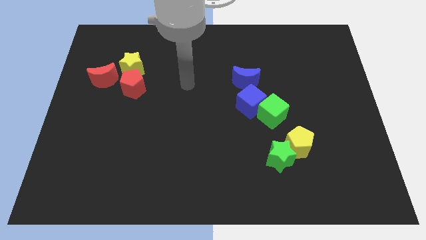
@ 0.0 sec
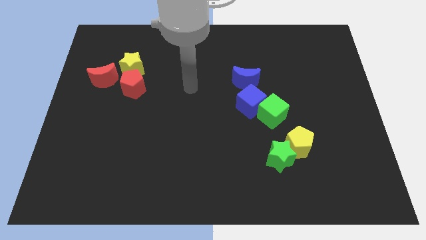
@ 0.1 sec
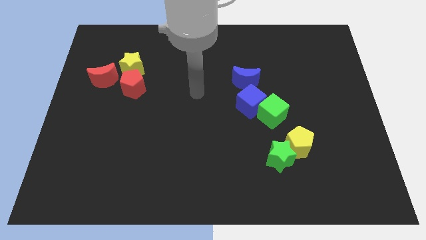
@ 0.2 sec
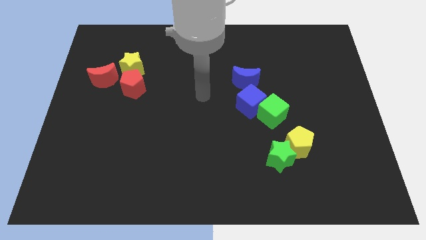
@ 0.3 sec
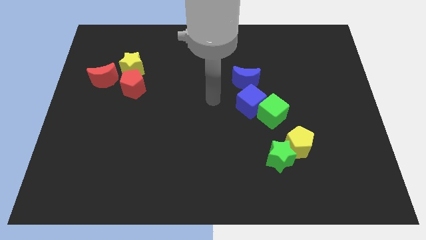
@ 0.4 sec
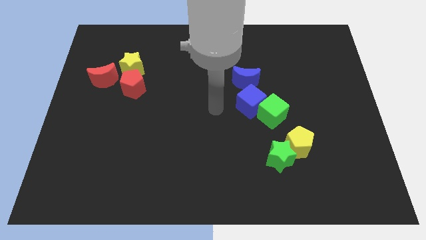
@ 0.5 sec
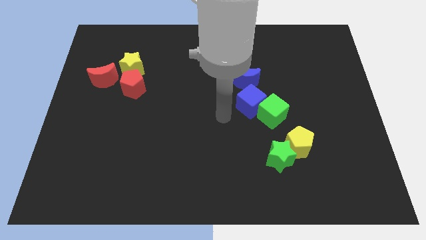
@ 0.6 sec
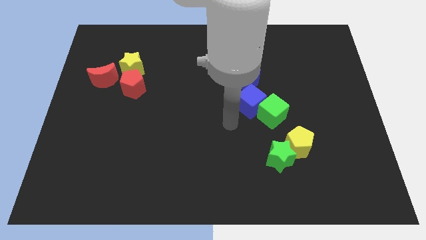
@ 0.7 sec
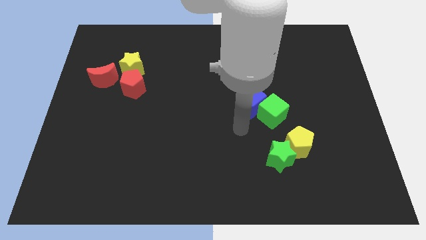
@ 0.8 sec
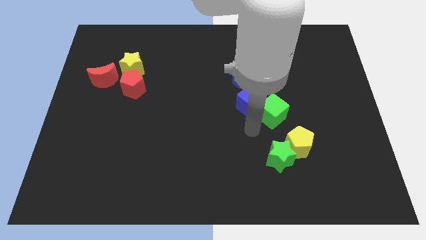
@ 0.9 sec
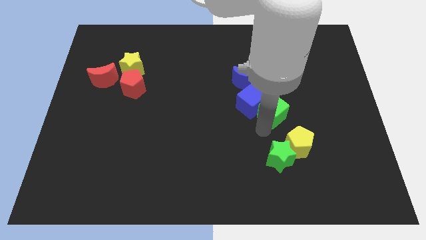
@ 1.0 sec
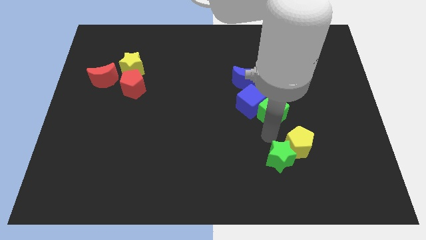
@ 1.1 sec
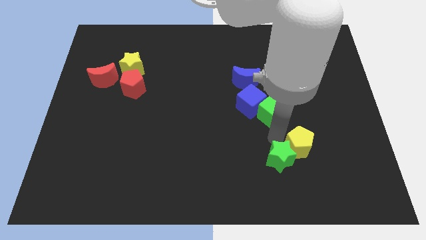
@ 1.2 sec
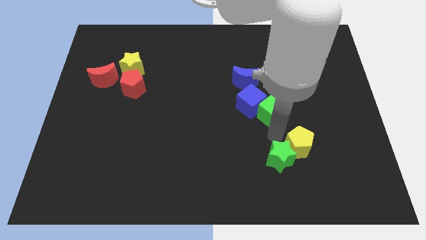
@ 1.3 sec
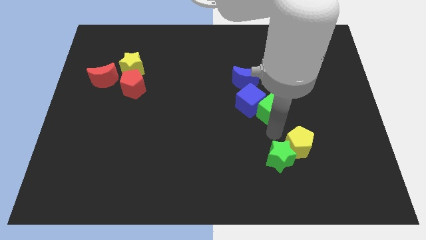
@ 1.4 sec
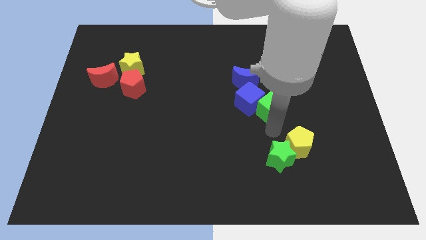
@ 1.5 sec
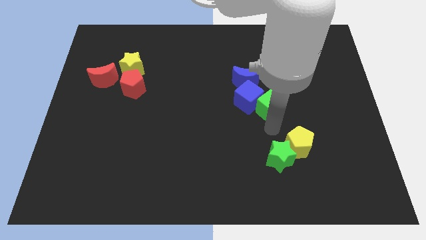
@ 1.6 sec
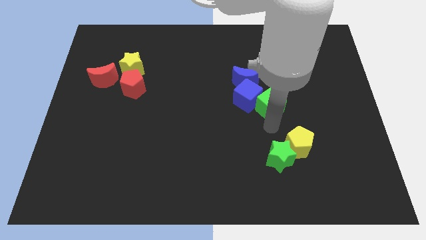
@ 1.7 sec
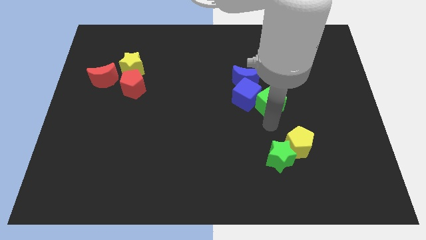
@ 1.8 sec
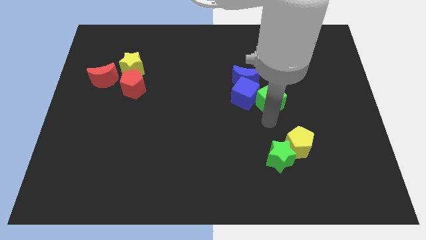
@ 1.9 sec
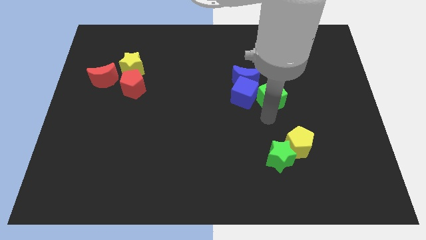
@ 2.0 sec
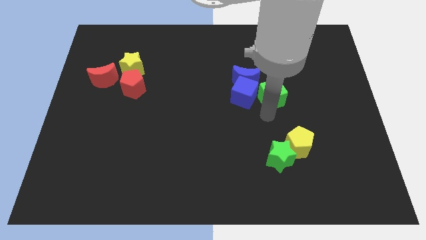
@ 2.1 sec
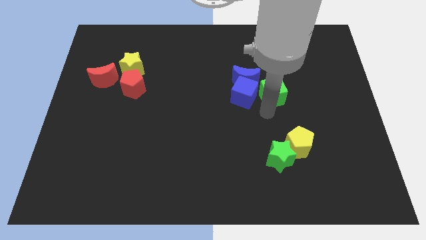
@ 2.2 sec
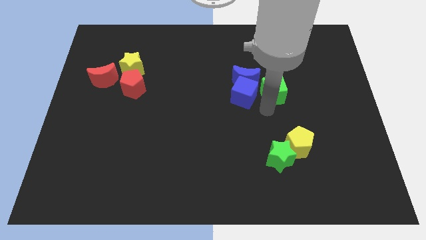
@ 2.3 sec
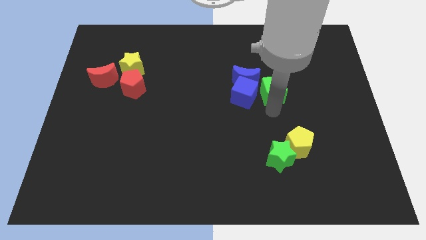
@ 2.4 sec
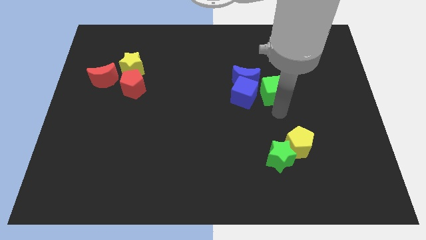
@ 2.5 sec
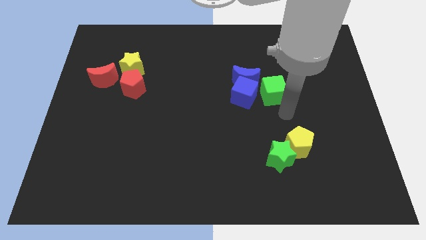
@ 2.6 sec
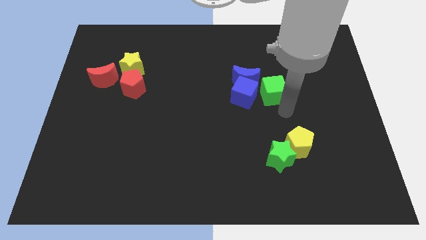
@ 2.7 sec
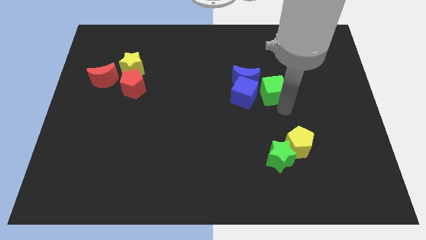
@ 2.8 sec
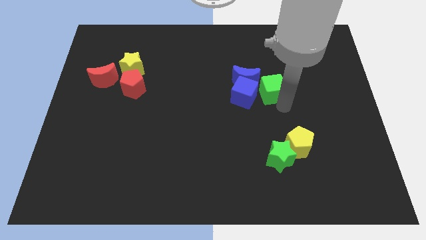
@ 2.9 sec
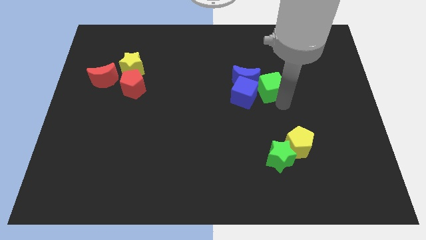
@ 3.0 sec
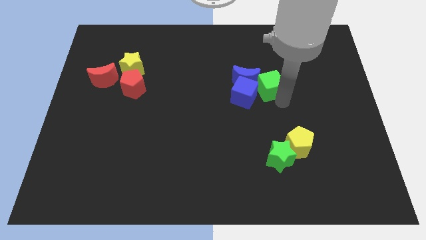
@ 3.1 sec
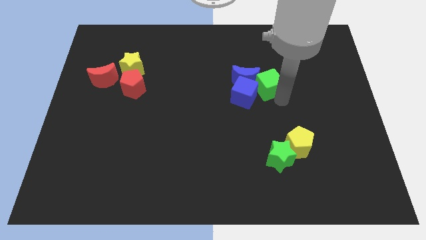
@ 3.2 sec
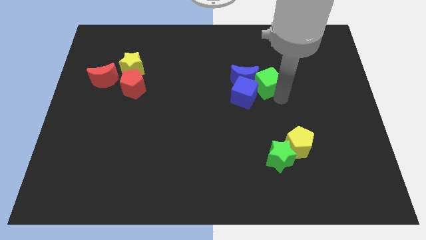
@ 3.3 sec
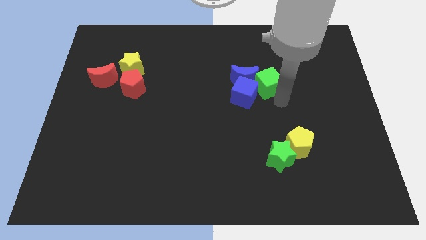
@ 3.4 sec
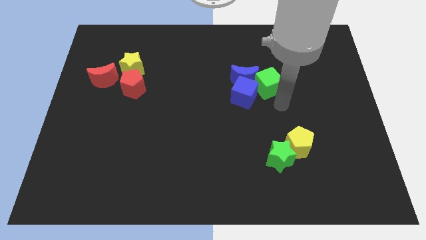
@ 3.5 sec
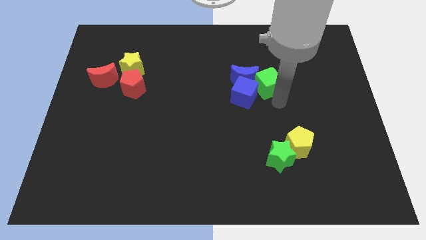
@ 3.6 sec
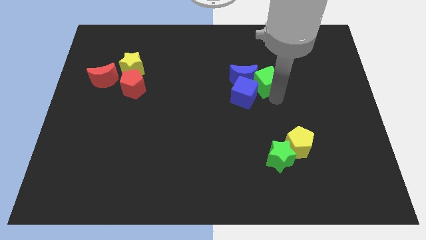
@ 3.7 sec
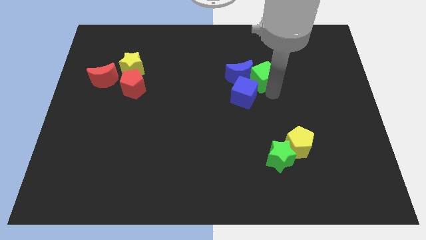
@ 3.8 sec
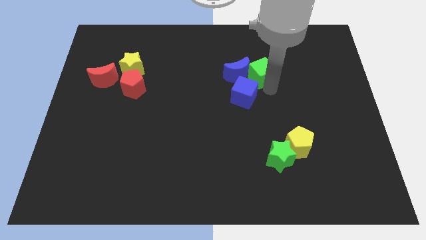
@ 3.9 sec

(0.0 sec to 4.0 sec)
push the green cube up and to the left diagonally a little

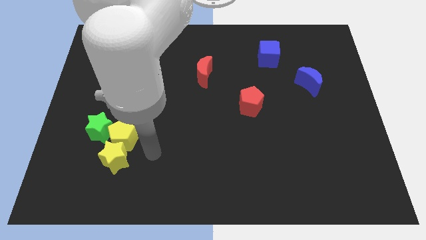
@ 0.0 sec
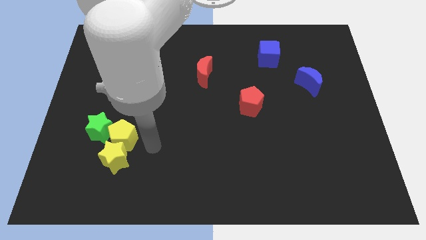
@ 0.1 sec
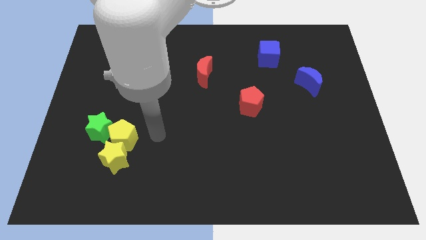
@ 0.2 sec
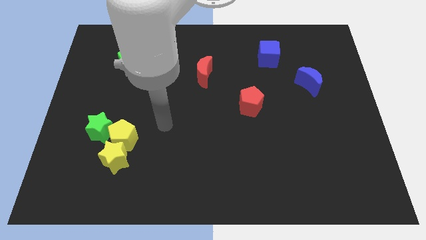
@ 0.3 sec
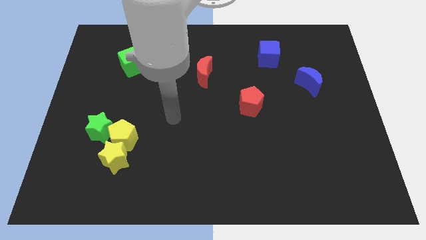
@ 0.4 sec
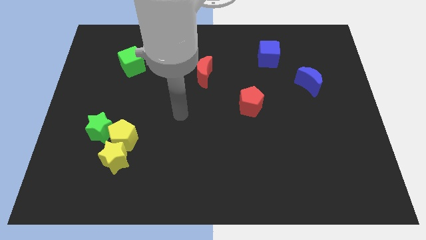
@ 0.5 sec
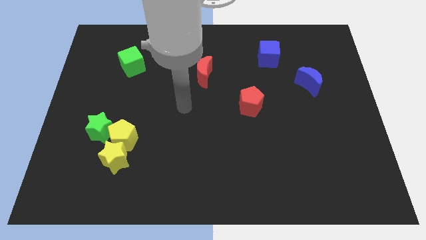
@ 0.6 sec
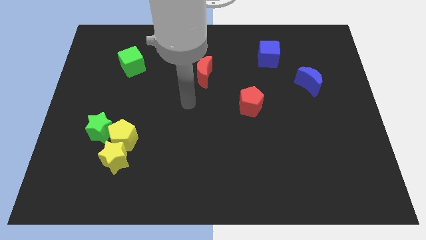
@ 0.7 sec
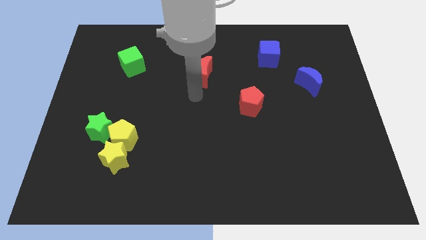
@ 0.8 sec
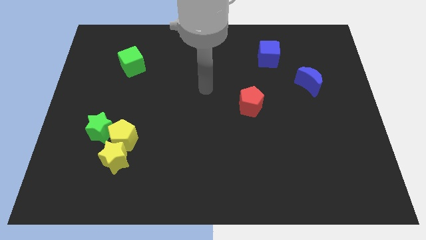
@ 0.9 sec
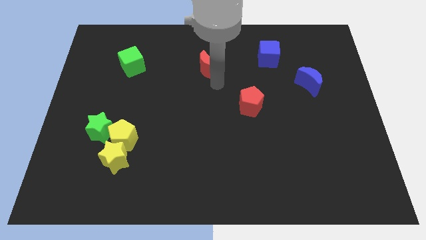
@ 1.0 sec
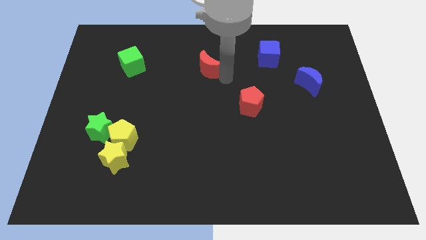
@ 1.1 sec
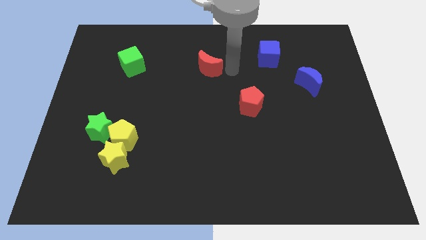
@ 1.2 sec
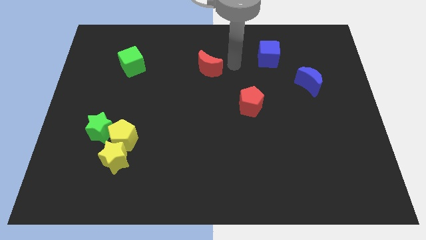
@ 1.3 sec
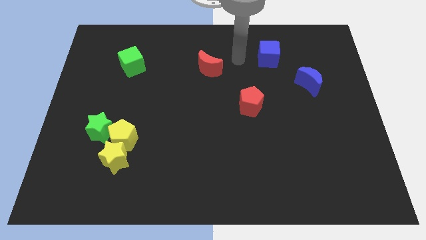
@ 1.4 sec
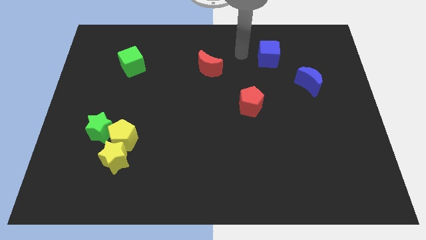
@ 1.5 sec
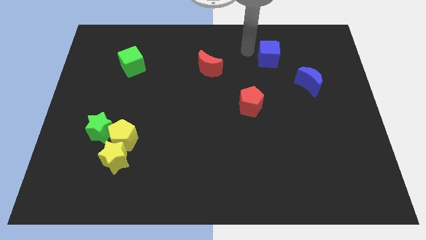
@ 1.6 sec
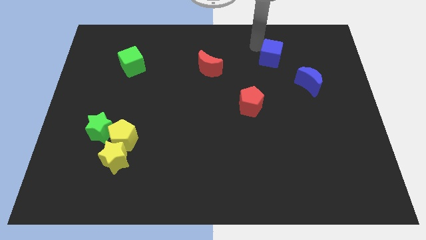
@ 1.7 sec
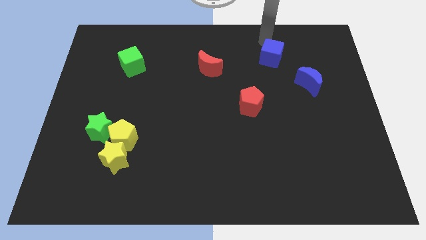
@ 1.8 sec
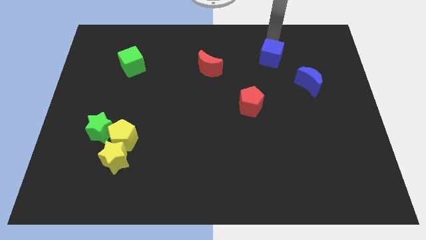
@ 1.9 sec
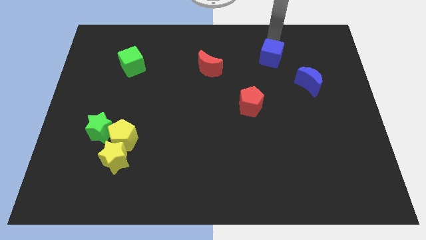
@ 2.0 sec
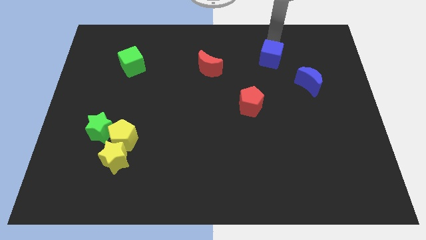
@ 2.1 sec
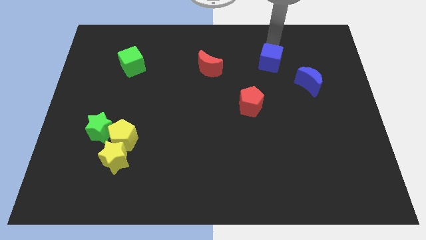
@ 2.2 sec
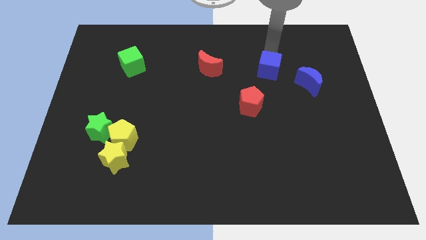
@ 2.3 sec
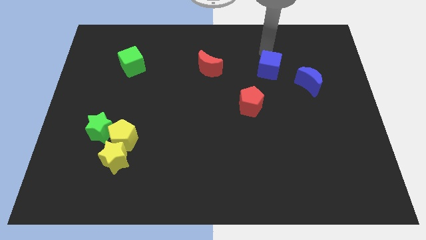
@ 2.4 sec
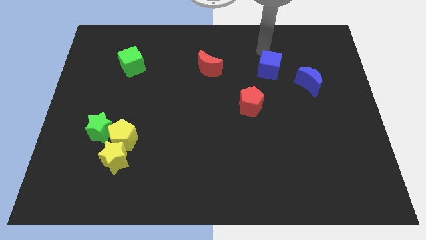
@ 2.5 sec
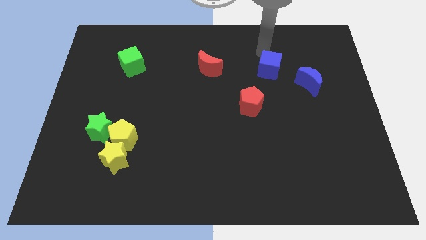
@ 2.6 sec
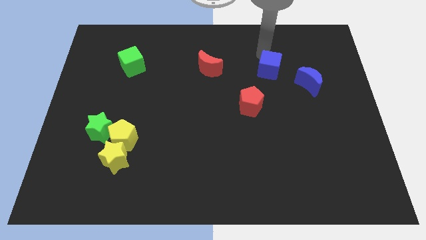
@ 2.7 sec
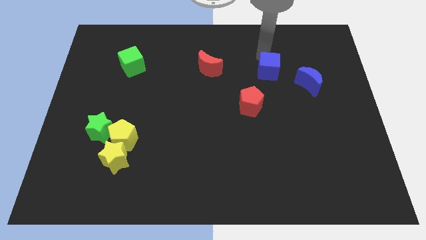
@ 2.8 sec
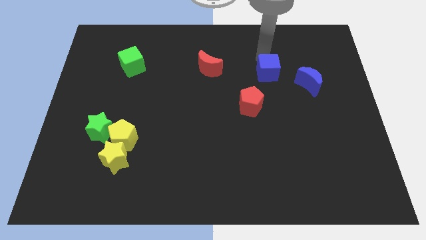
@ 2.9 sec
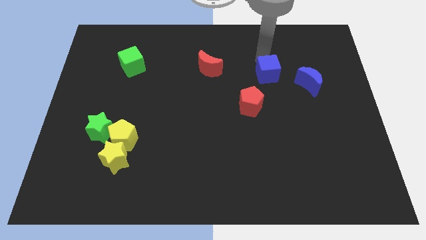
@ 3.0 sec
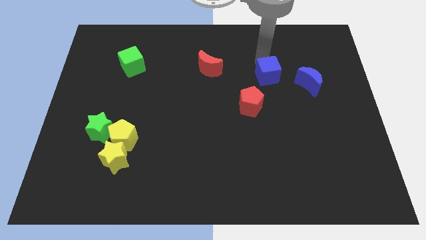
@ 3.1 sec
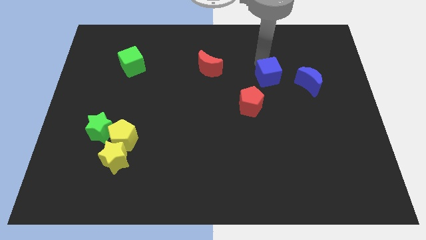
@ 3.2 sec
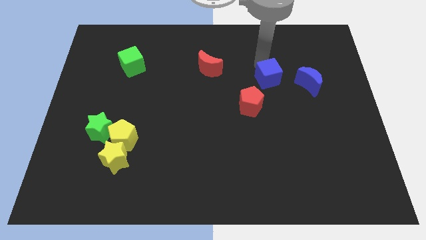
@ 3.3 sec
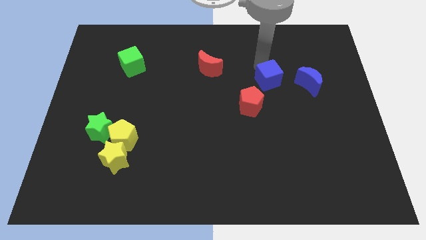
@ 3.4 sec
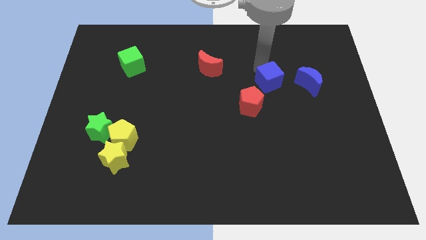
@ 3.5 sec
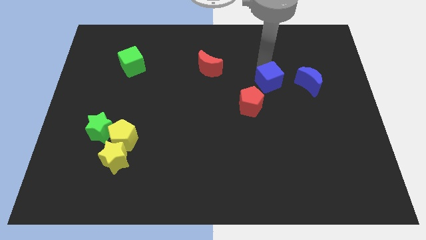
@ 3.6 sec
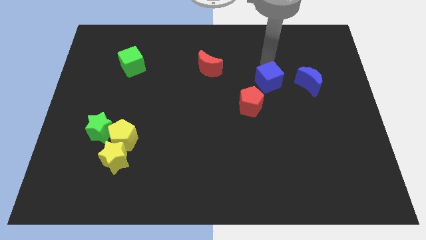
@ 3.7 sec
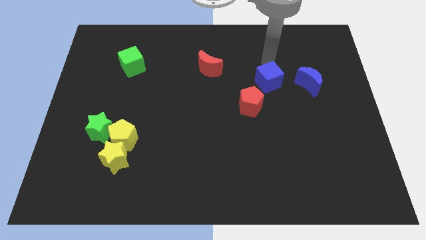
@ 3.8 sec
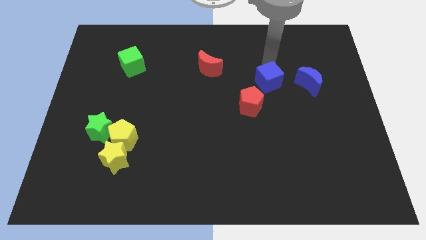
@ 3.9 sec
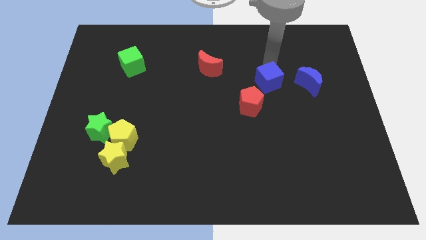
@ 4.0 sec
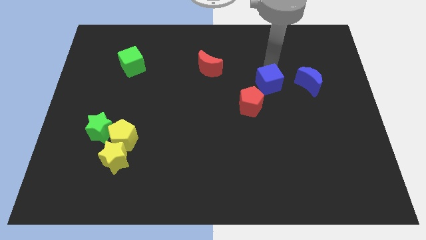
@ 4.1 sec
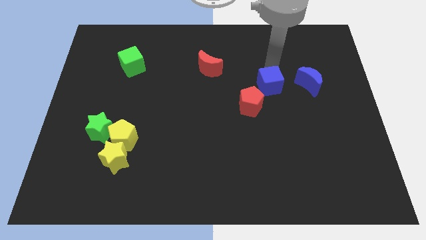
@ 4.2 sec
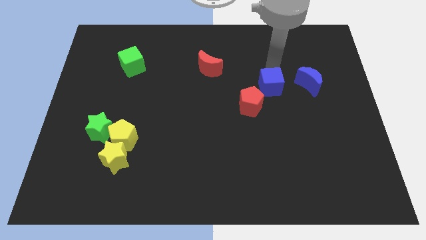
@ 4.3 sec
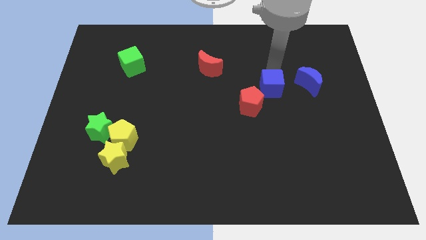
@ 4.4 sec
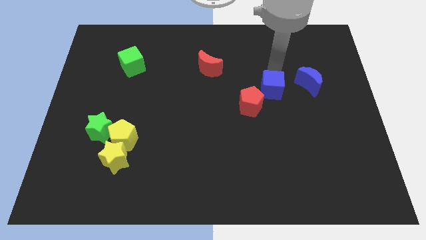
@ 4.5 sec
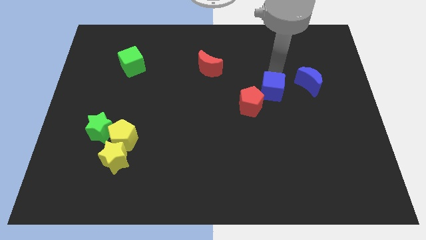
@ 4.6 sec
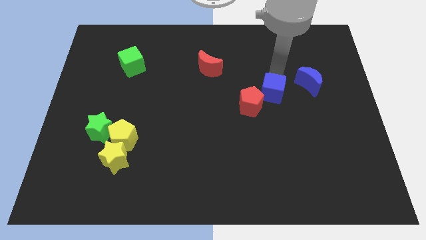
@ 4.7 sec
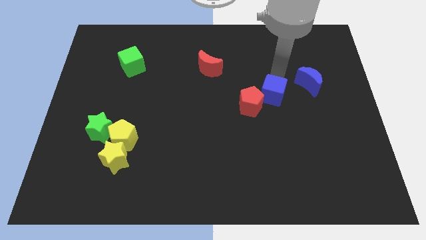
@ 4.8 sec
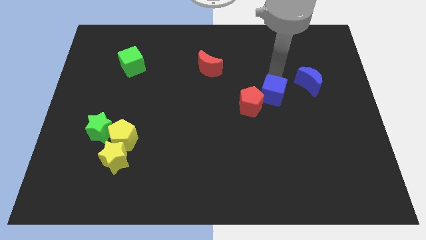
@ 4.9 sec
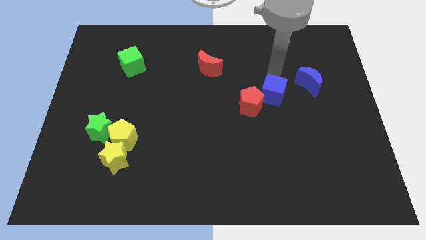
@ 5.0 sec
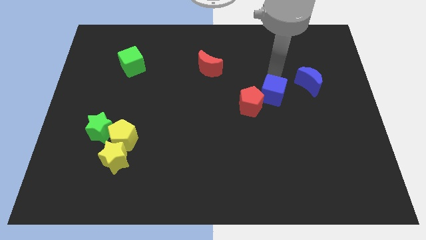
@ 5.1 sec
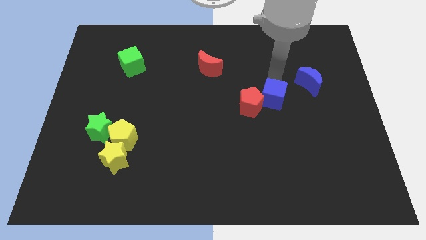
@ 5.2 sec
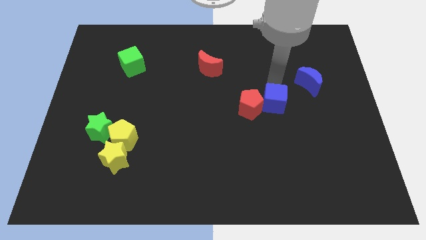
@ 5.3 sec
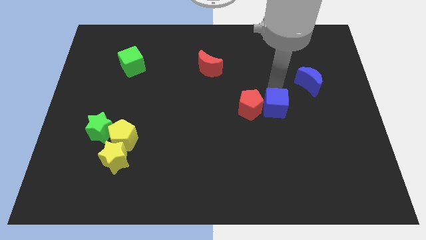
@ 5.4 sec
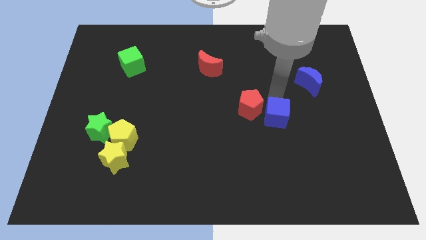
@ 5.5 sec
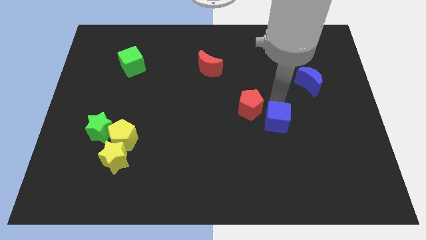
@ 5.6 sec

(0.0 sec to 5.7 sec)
slide the blue cube down
